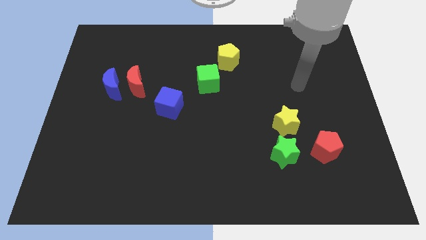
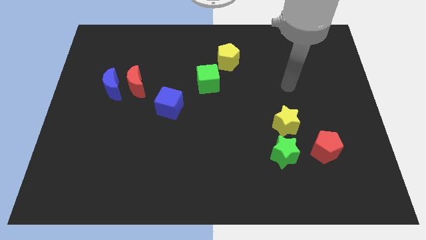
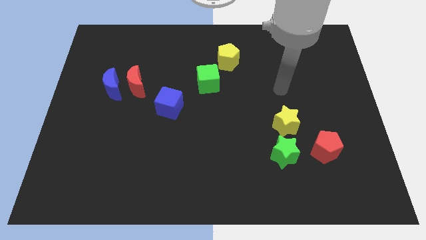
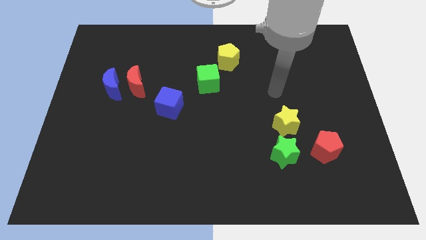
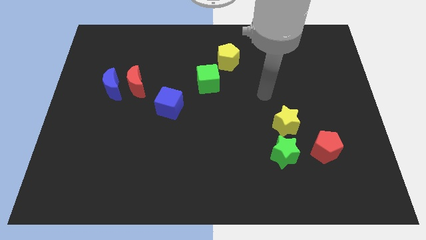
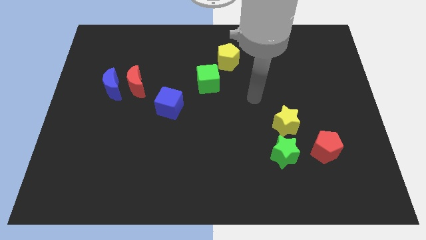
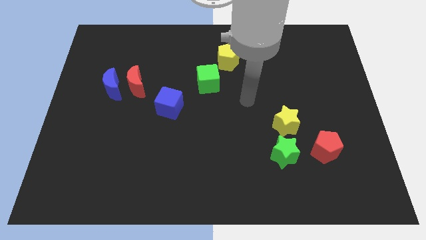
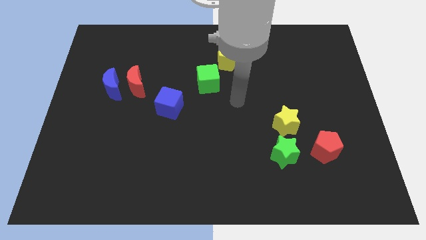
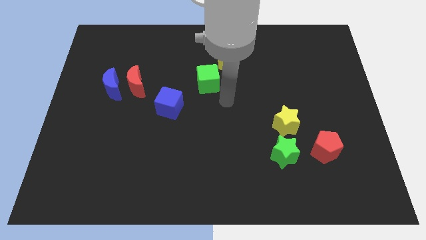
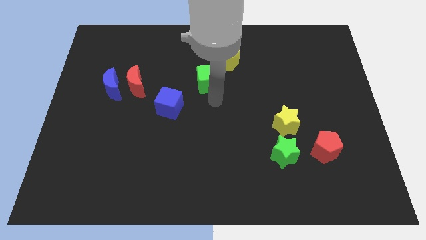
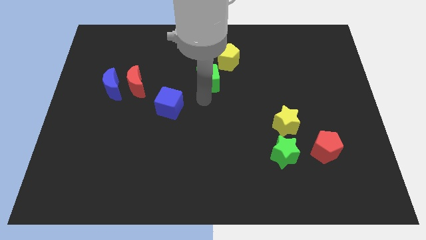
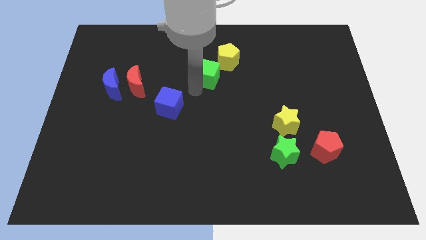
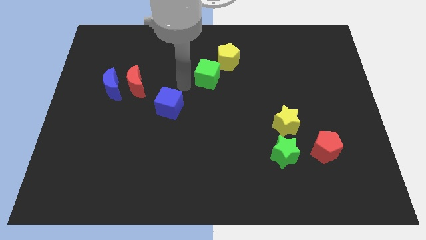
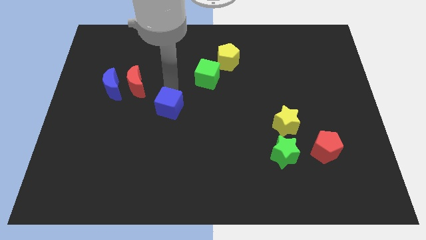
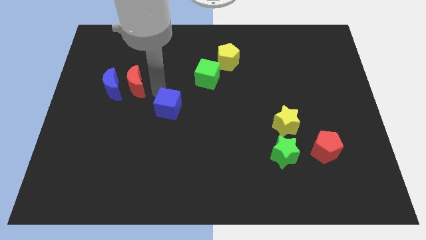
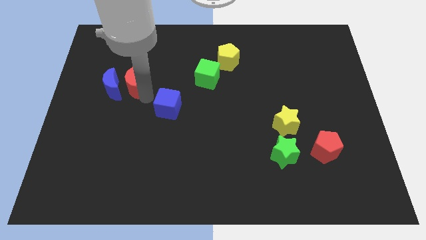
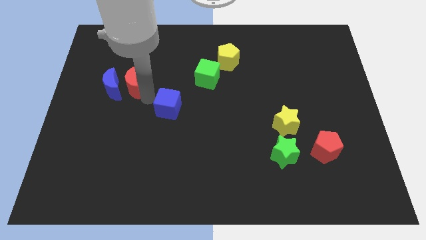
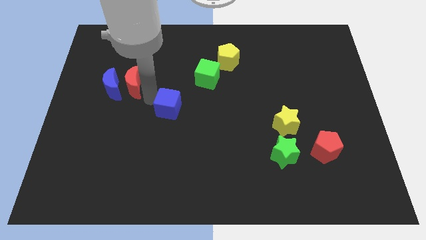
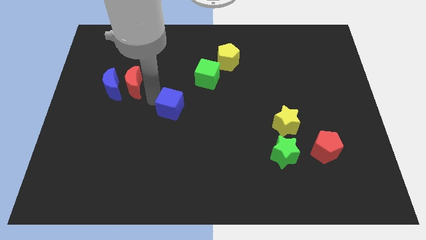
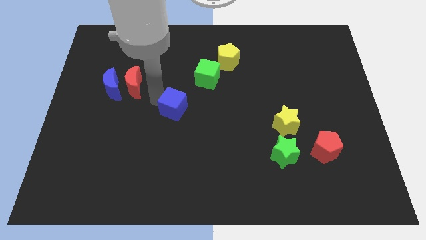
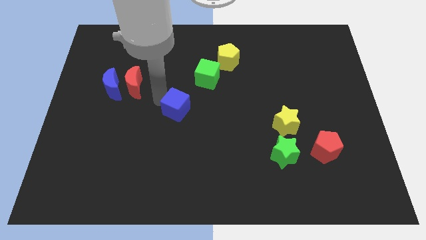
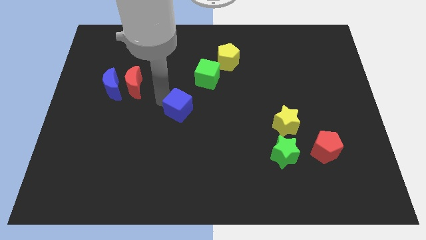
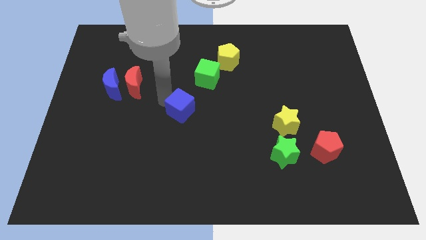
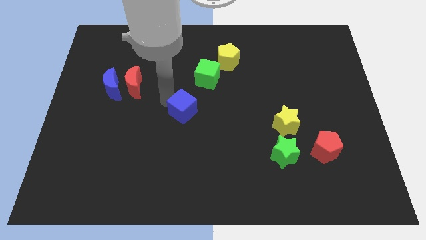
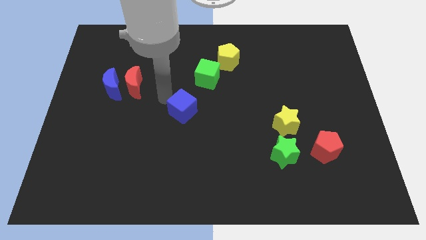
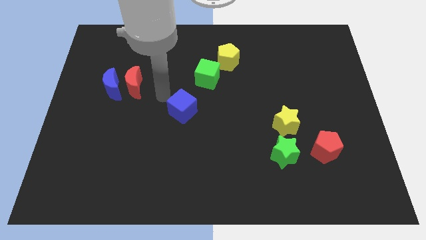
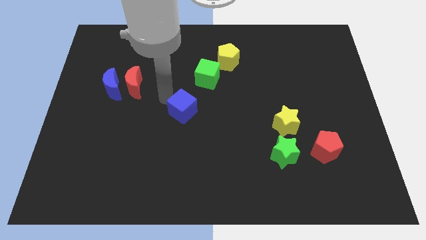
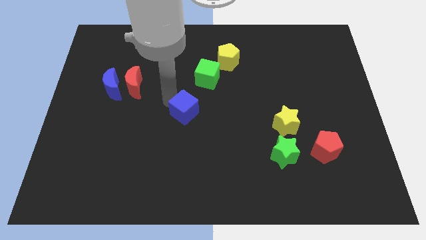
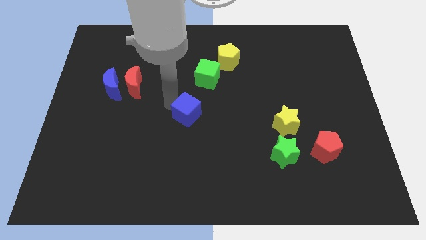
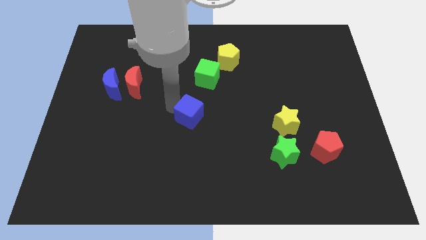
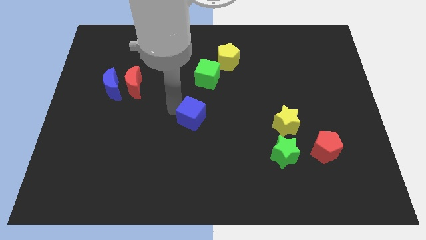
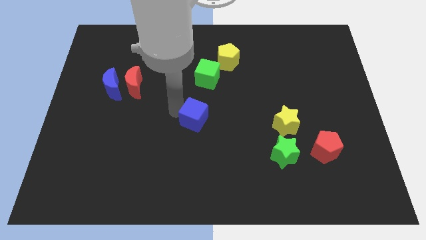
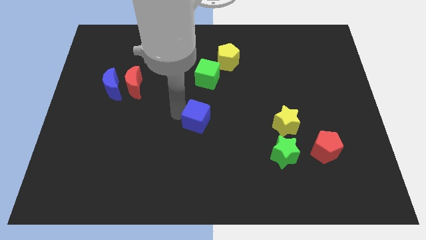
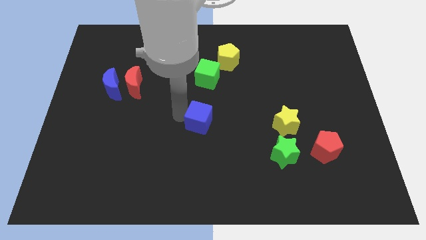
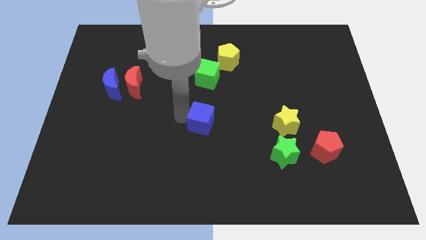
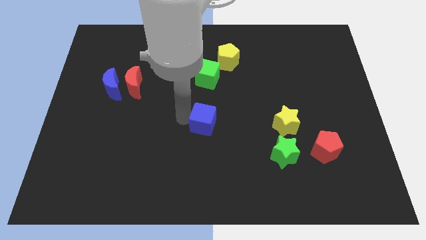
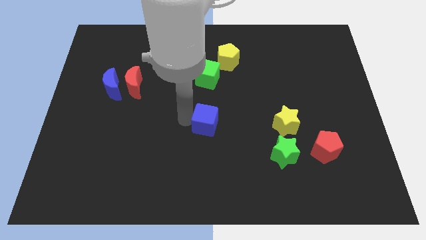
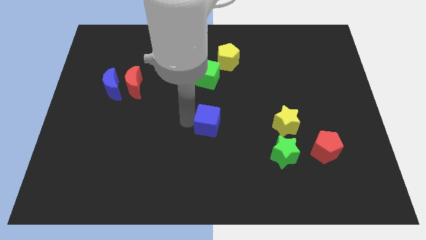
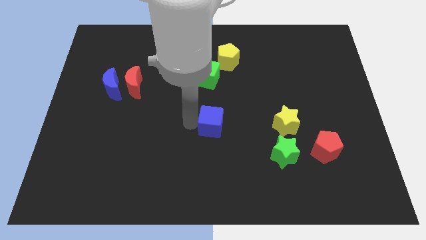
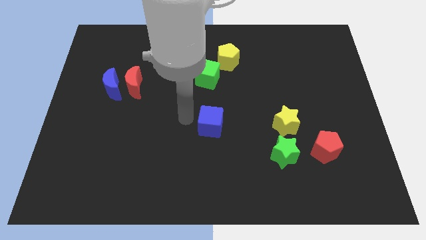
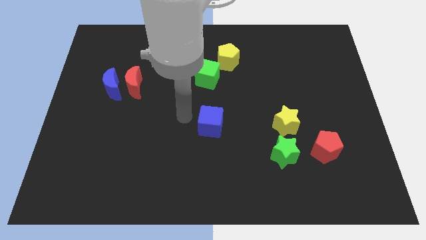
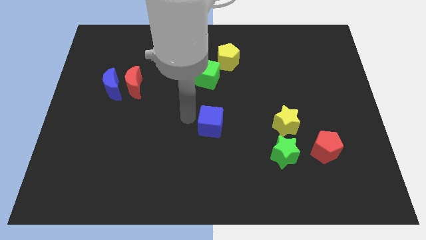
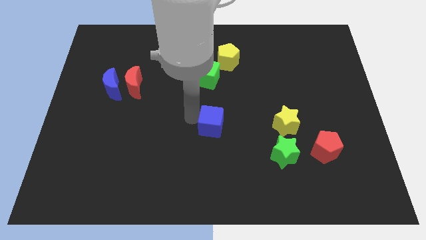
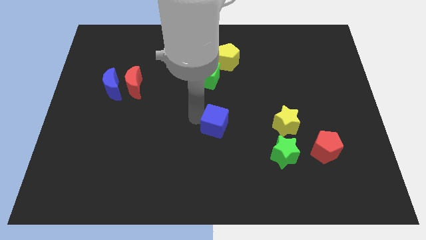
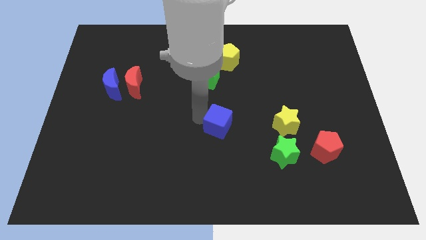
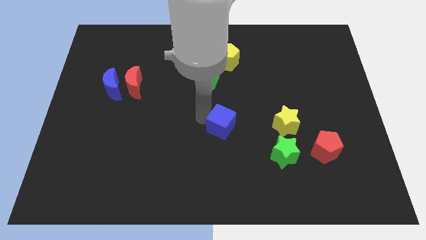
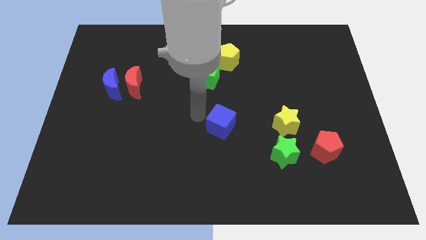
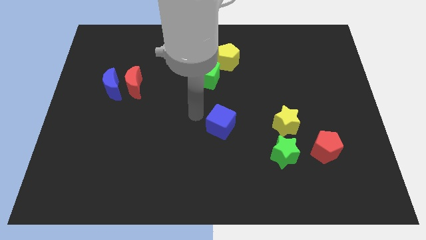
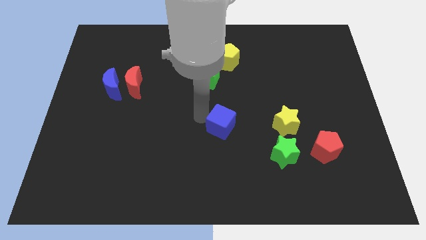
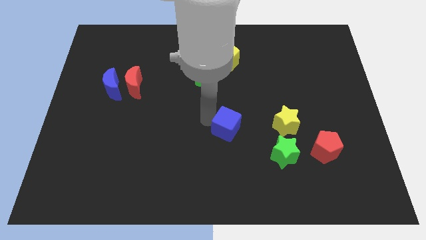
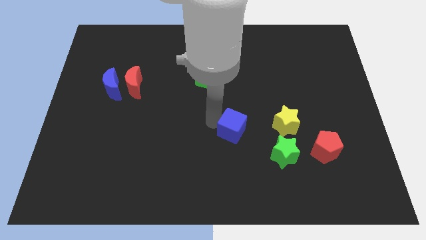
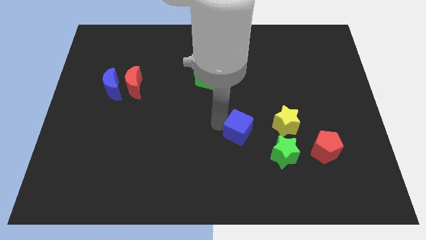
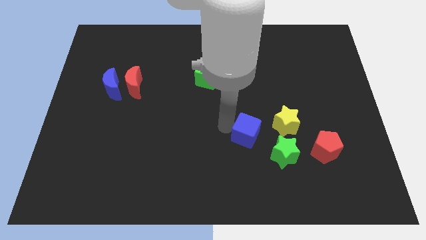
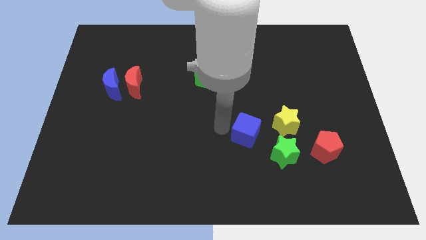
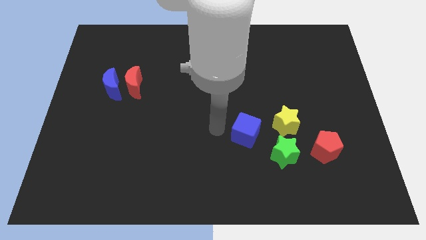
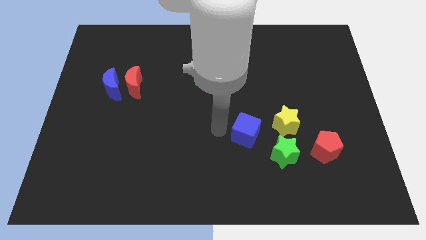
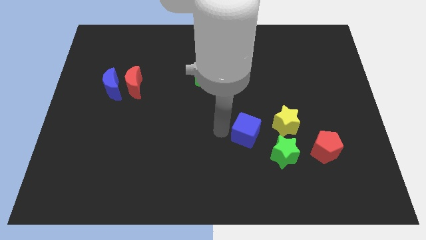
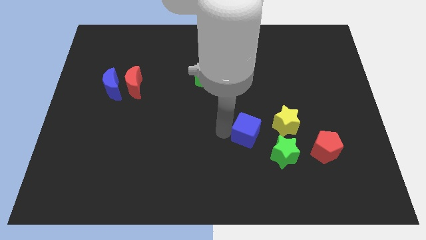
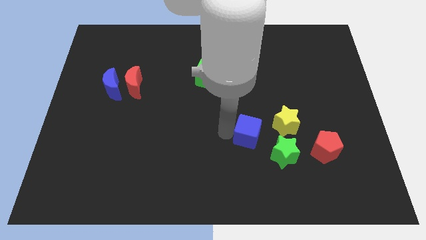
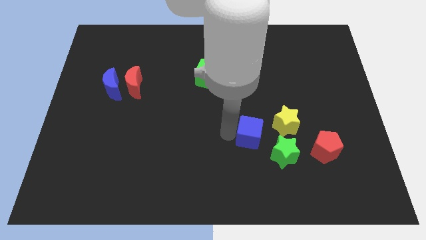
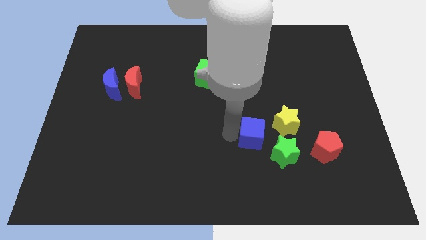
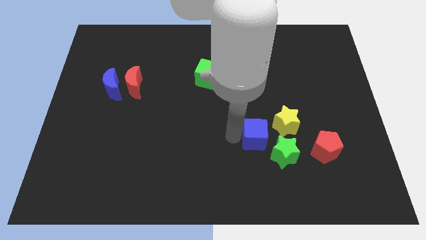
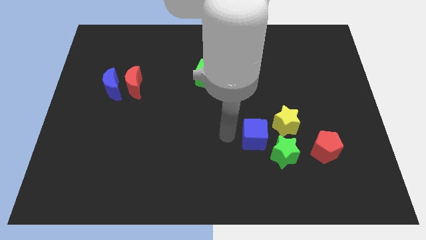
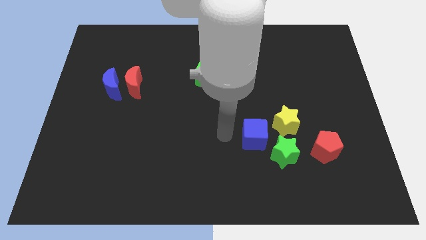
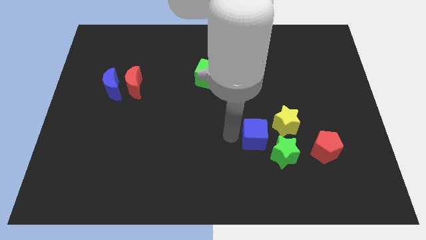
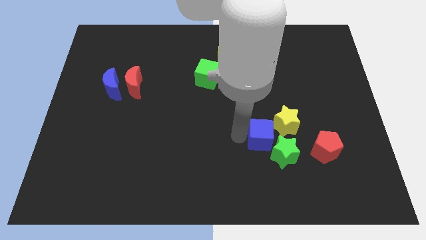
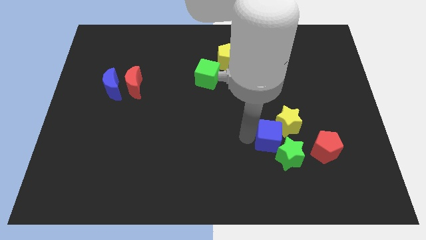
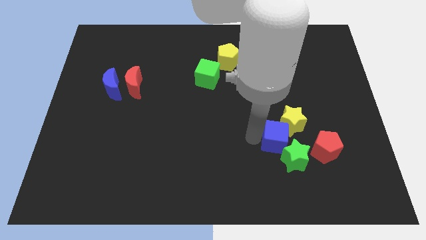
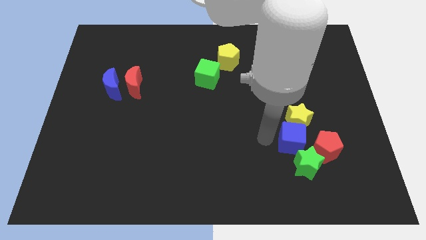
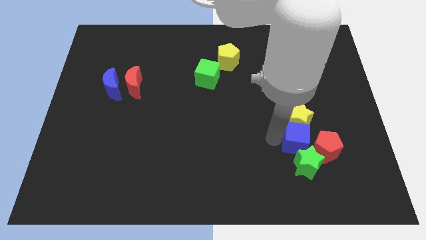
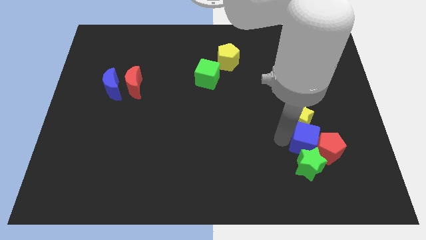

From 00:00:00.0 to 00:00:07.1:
slide the blue cube towards the red pentagon
